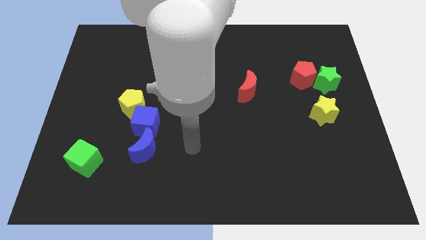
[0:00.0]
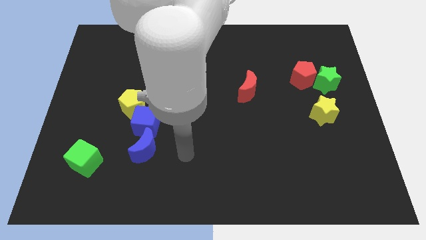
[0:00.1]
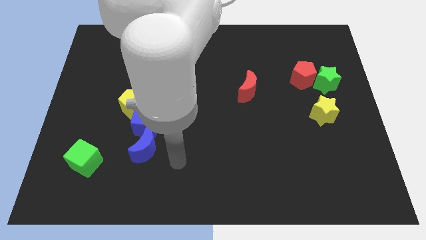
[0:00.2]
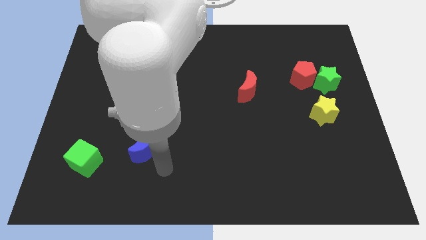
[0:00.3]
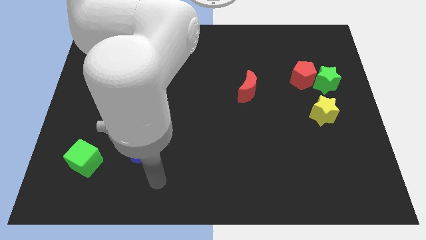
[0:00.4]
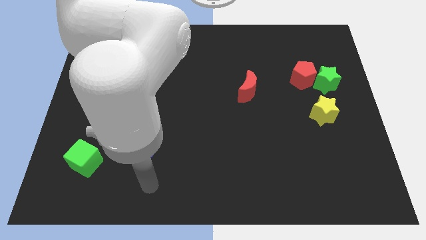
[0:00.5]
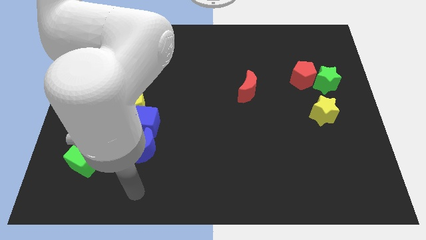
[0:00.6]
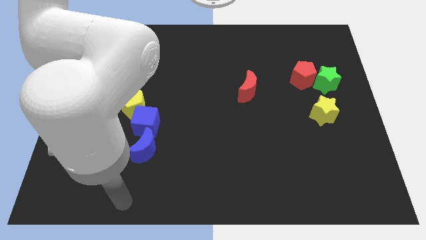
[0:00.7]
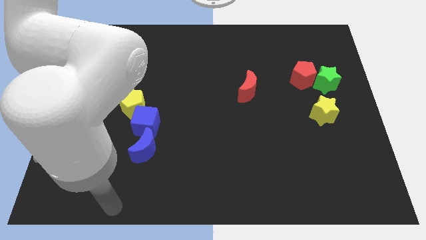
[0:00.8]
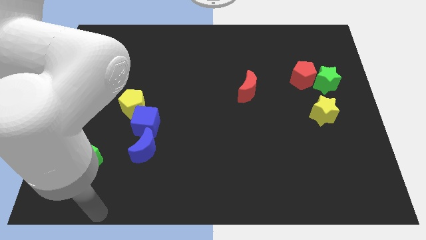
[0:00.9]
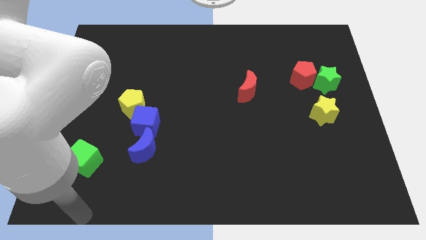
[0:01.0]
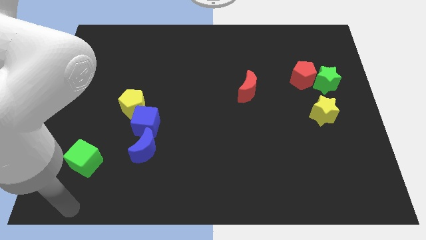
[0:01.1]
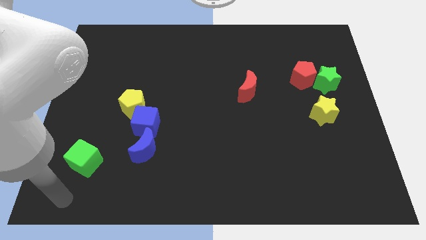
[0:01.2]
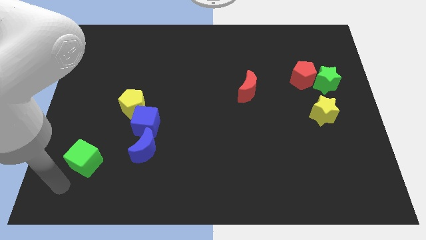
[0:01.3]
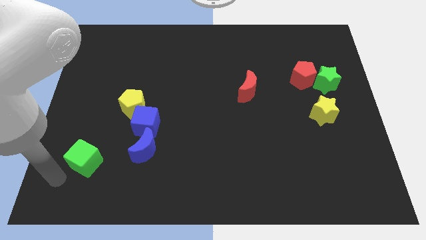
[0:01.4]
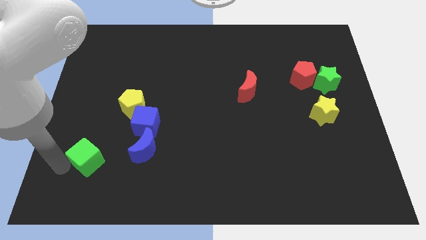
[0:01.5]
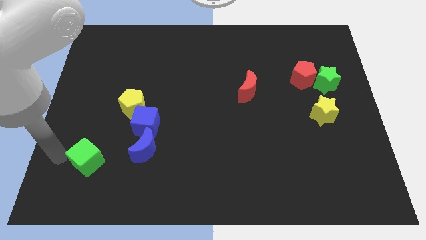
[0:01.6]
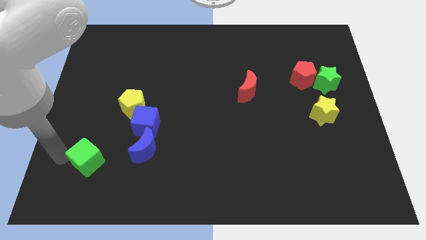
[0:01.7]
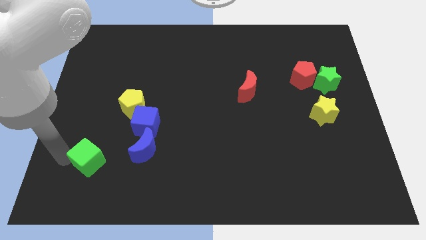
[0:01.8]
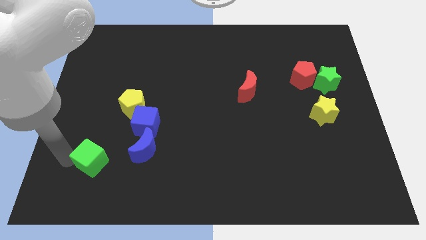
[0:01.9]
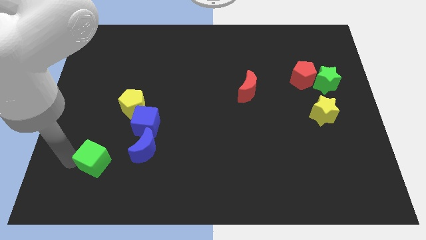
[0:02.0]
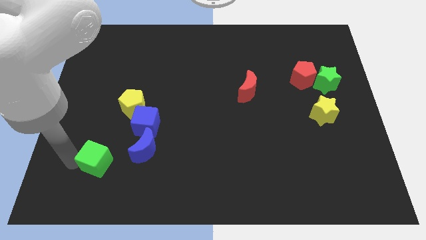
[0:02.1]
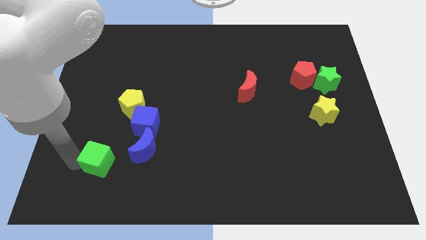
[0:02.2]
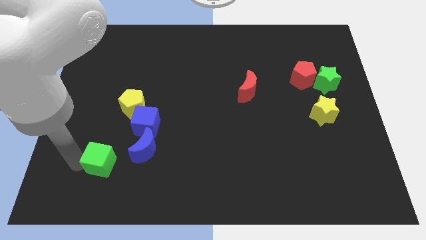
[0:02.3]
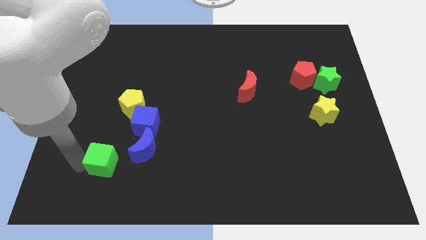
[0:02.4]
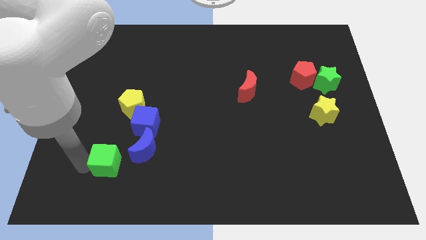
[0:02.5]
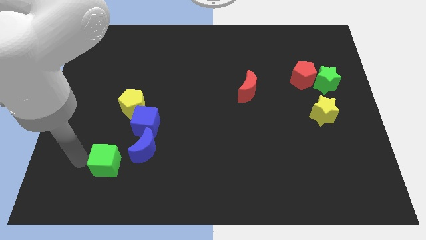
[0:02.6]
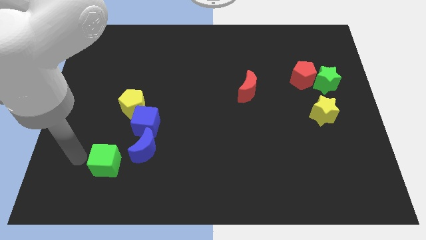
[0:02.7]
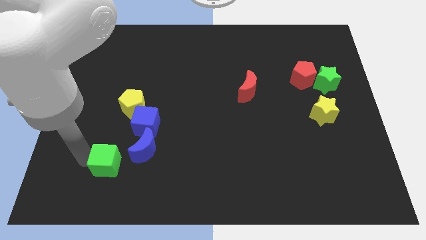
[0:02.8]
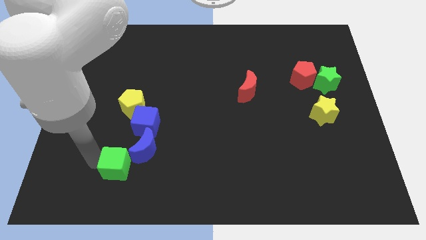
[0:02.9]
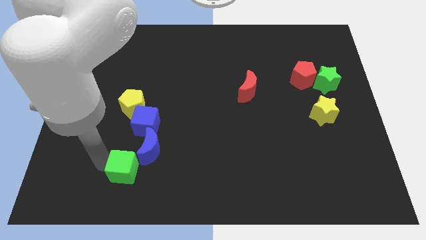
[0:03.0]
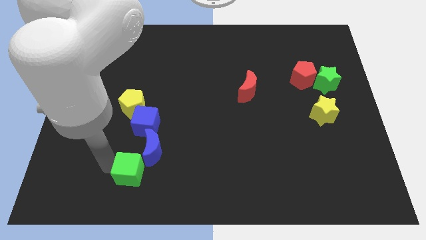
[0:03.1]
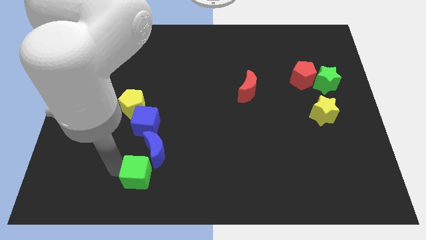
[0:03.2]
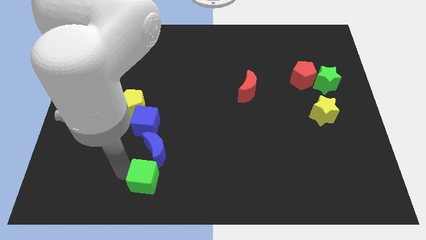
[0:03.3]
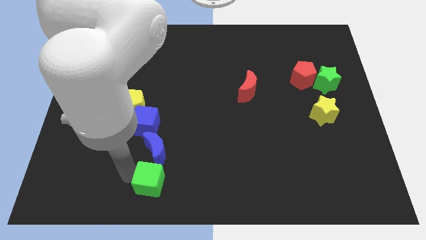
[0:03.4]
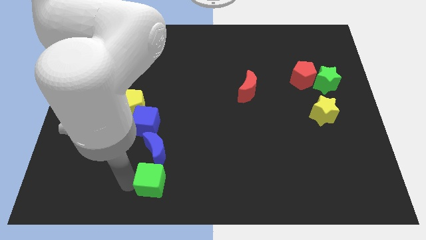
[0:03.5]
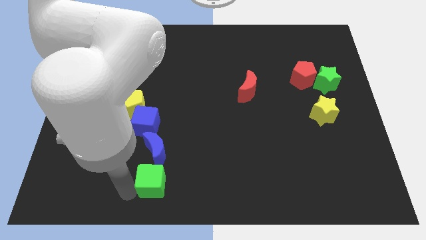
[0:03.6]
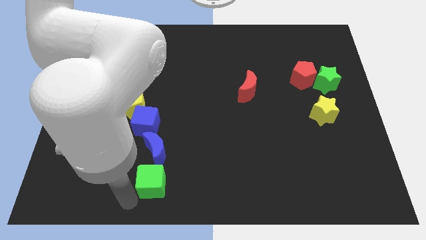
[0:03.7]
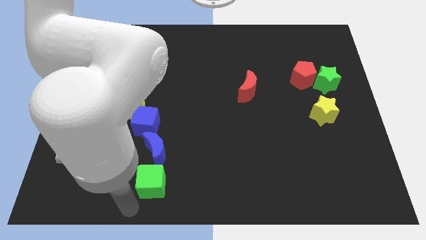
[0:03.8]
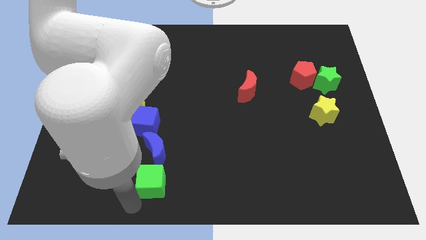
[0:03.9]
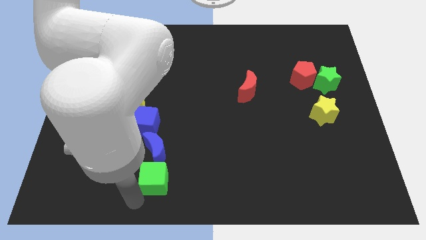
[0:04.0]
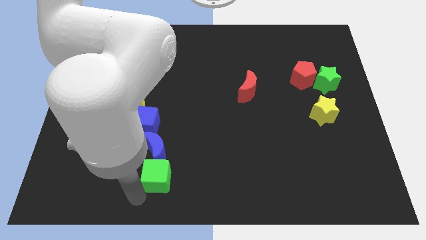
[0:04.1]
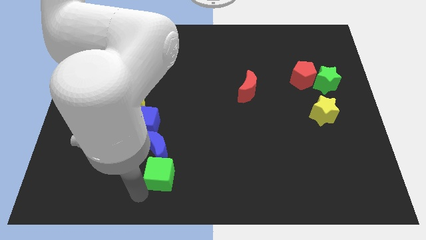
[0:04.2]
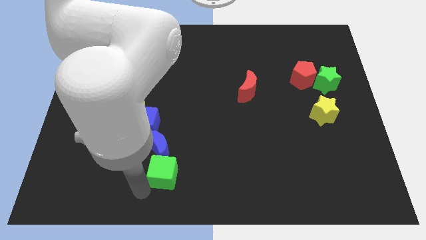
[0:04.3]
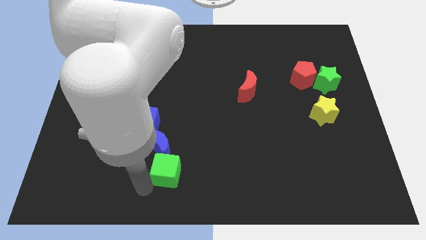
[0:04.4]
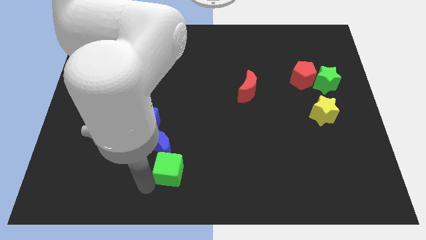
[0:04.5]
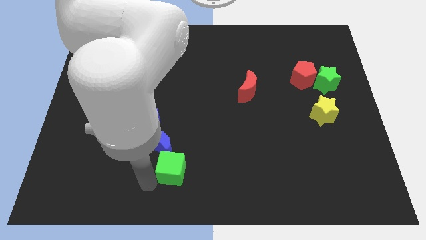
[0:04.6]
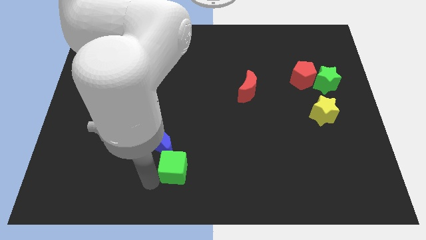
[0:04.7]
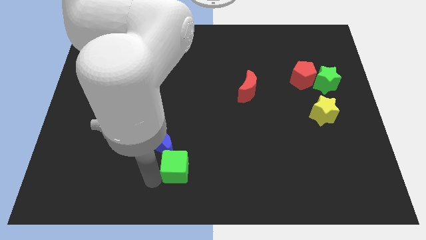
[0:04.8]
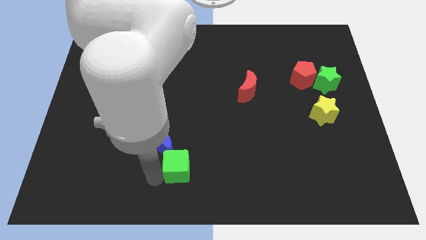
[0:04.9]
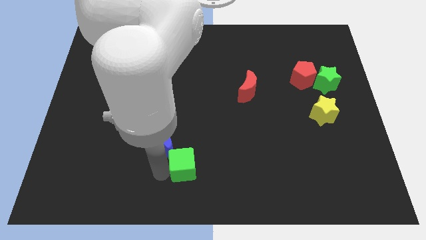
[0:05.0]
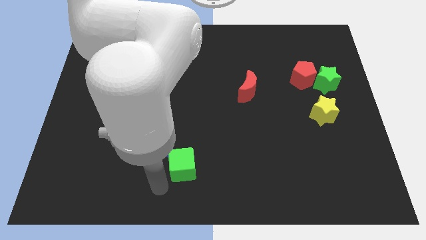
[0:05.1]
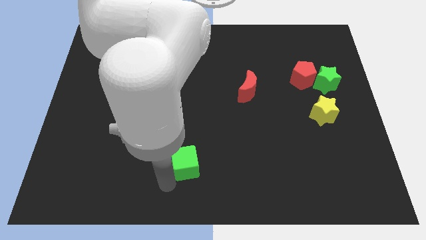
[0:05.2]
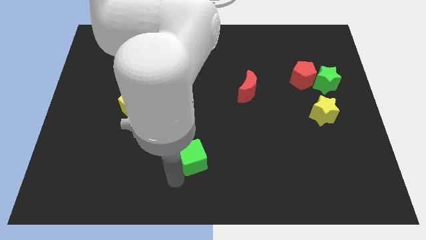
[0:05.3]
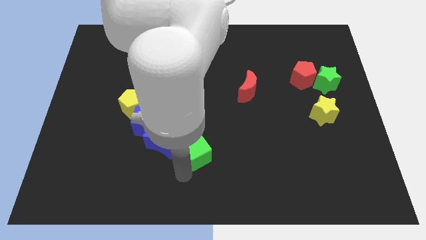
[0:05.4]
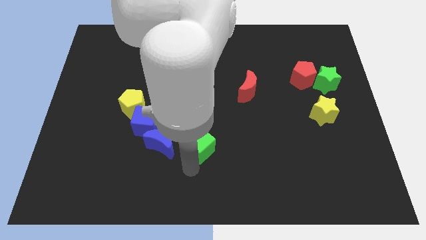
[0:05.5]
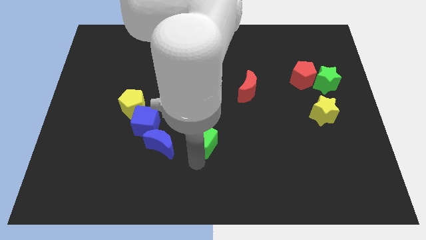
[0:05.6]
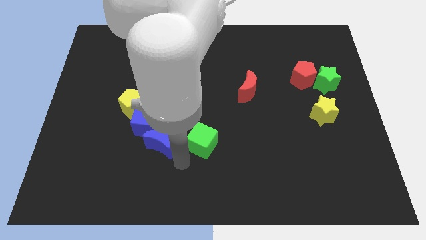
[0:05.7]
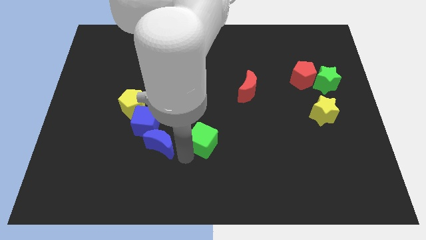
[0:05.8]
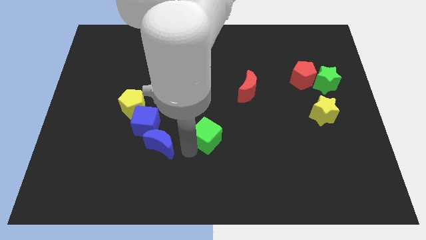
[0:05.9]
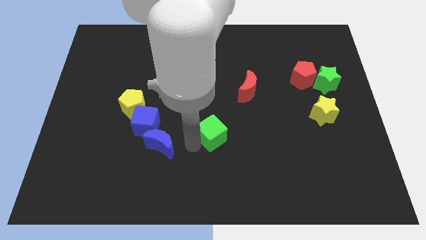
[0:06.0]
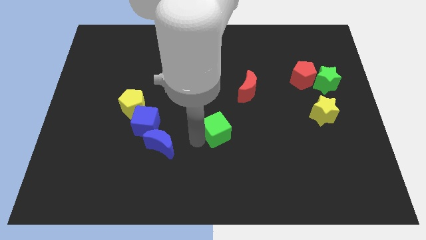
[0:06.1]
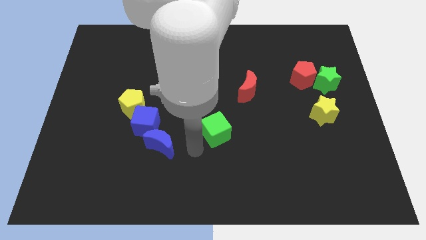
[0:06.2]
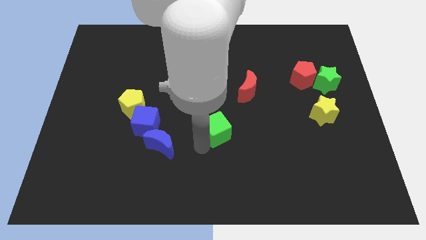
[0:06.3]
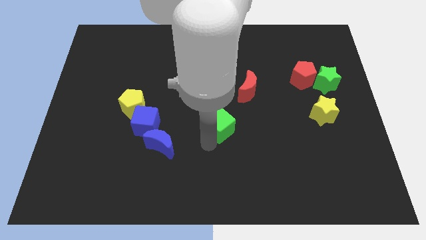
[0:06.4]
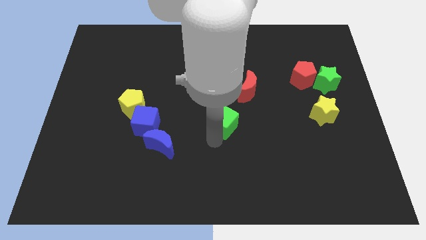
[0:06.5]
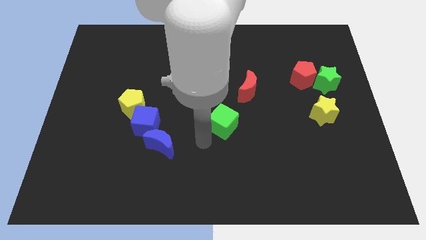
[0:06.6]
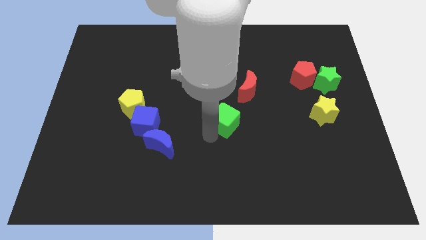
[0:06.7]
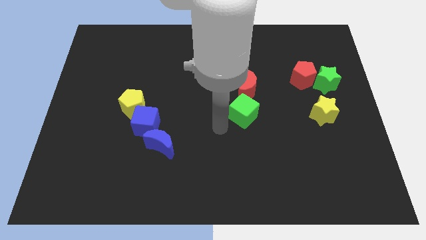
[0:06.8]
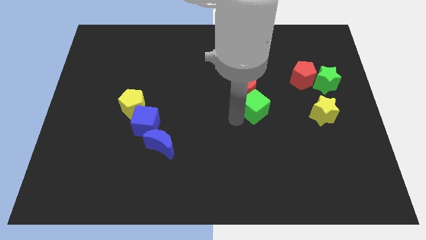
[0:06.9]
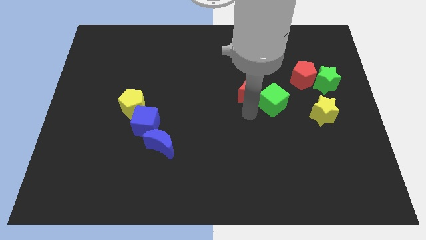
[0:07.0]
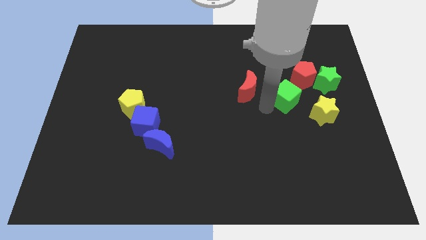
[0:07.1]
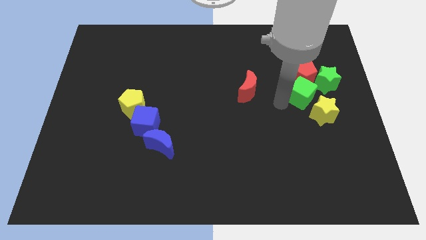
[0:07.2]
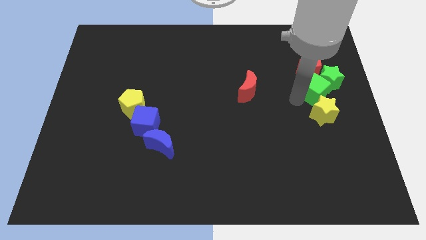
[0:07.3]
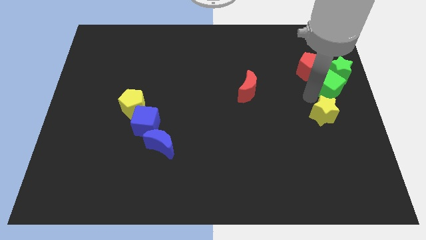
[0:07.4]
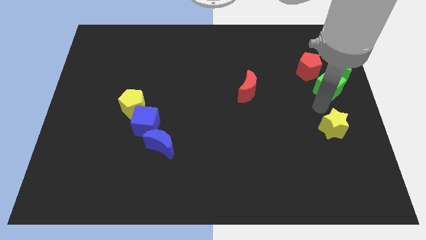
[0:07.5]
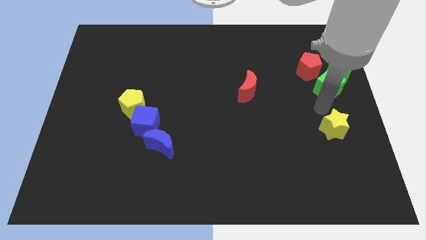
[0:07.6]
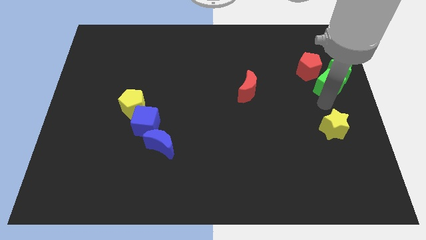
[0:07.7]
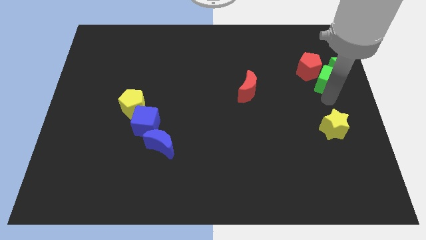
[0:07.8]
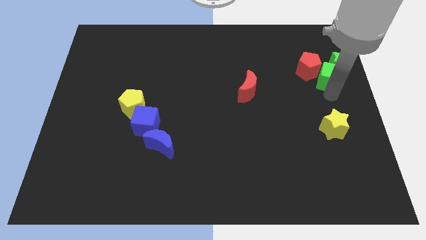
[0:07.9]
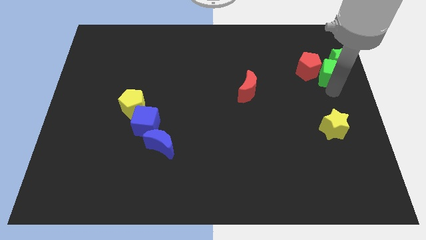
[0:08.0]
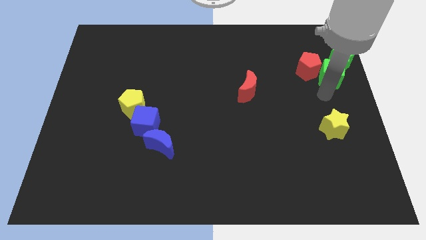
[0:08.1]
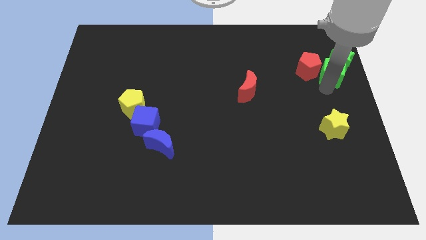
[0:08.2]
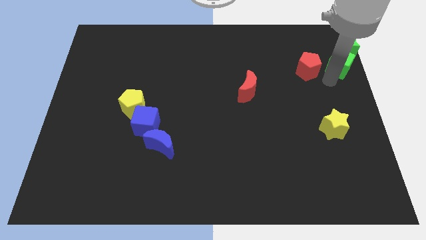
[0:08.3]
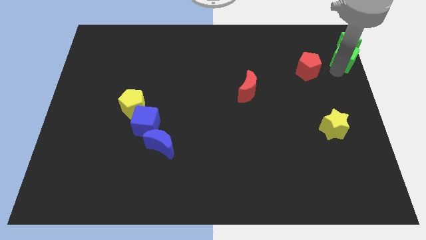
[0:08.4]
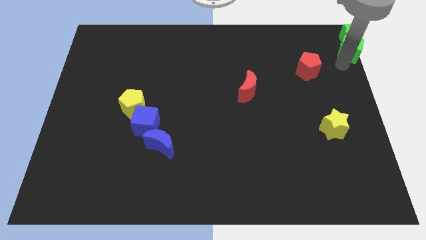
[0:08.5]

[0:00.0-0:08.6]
put the green cube to the top right of the board
